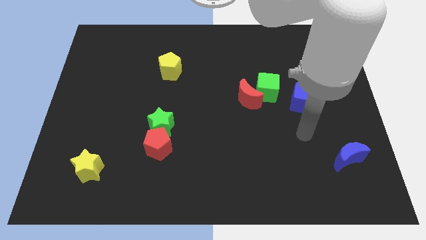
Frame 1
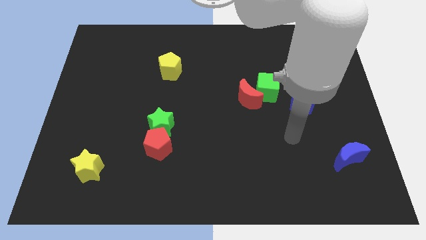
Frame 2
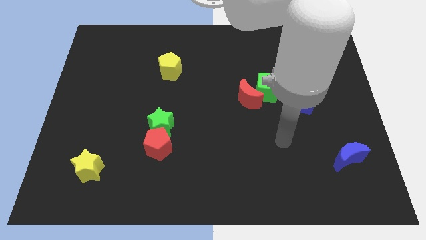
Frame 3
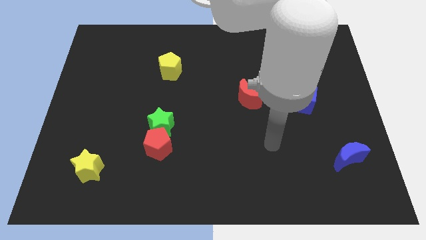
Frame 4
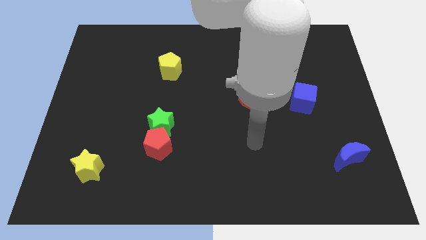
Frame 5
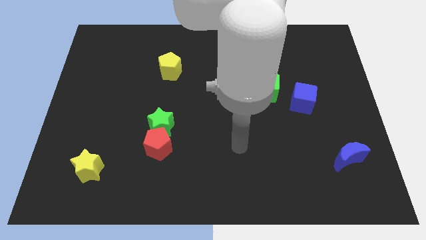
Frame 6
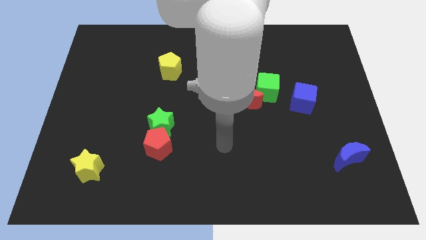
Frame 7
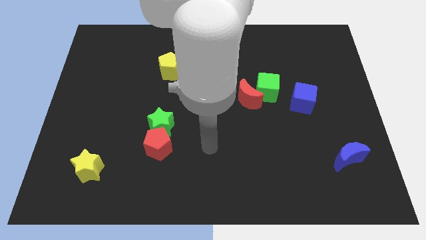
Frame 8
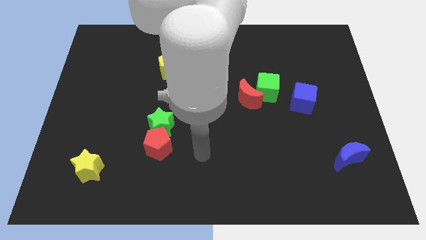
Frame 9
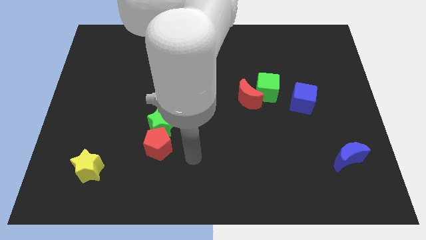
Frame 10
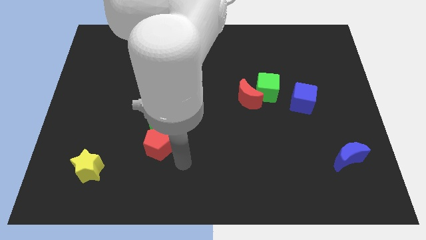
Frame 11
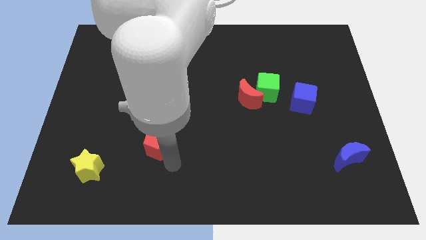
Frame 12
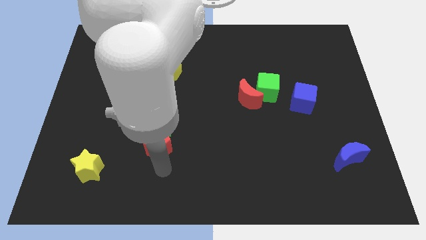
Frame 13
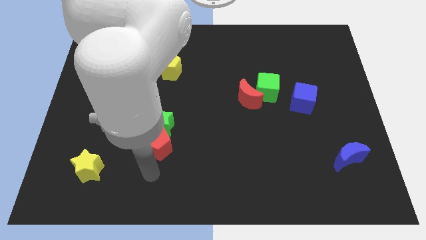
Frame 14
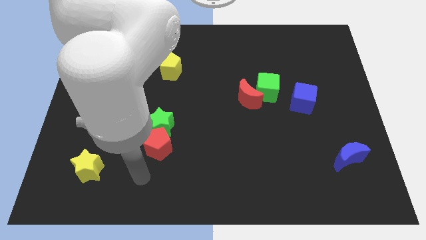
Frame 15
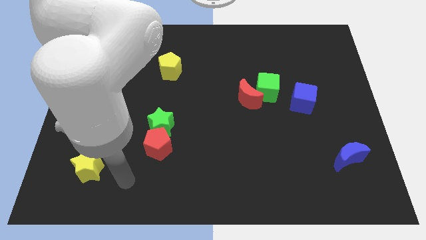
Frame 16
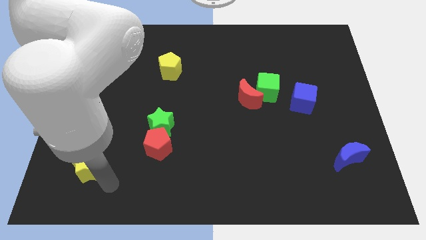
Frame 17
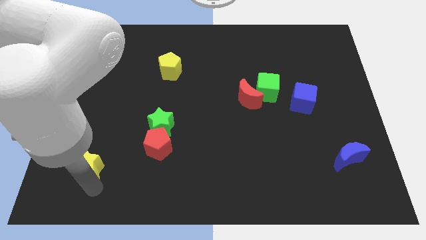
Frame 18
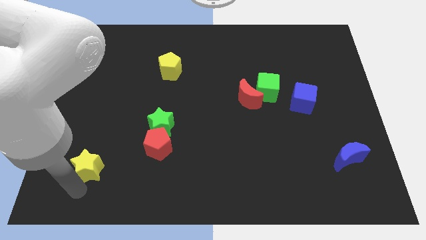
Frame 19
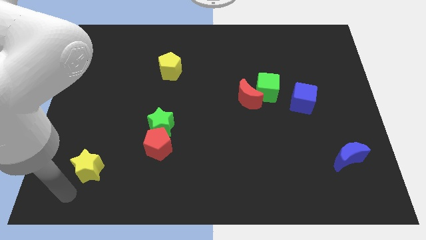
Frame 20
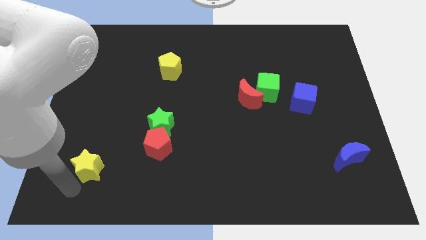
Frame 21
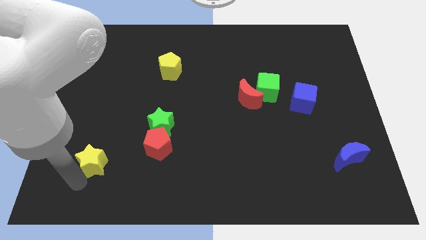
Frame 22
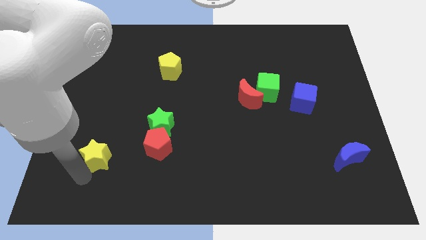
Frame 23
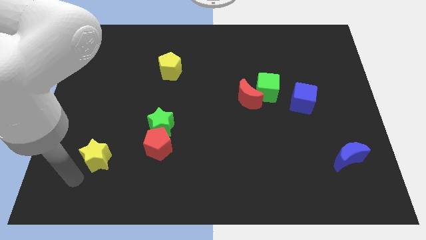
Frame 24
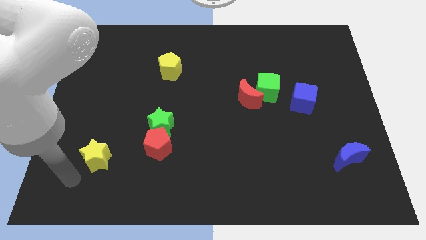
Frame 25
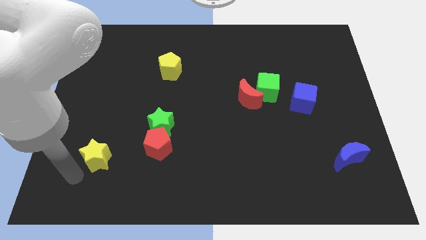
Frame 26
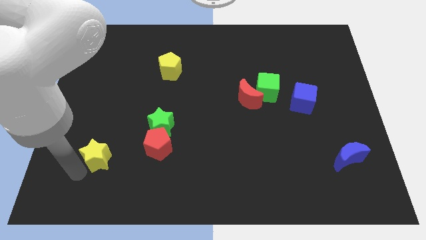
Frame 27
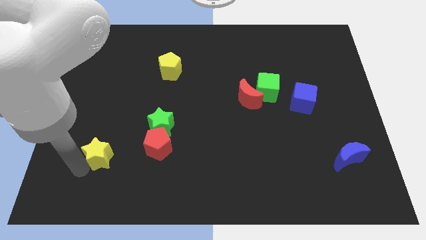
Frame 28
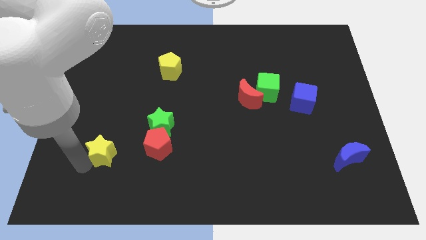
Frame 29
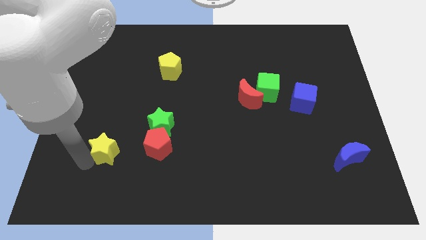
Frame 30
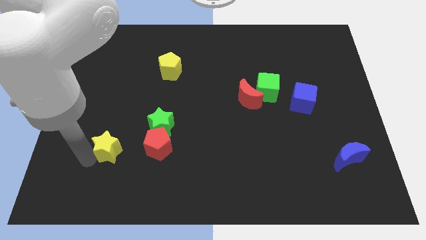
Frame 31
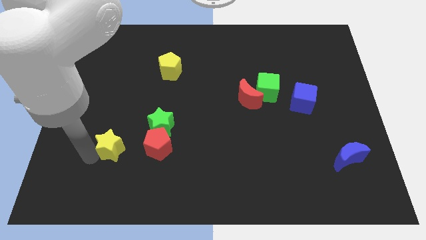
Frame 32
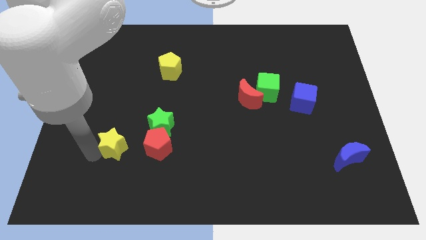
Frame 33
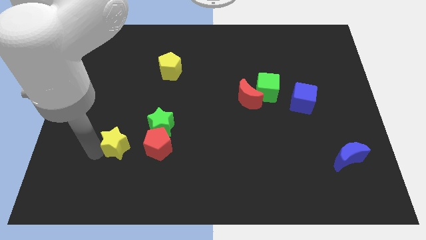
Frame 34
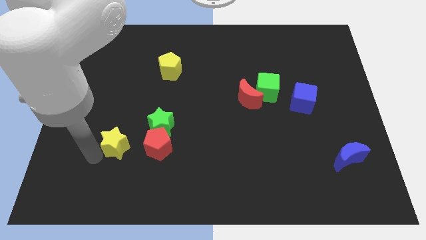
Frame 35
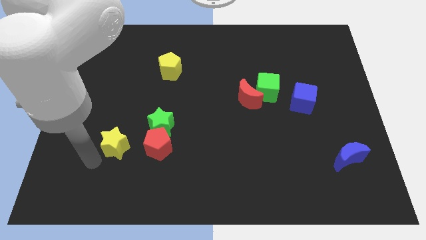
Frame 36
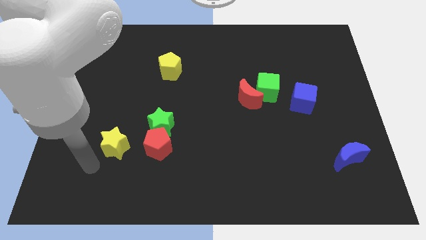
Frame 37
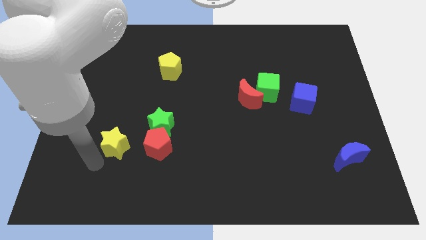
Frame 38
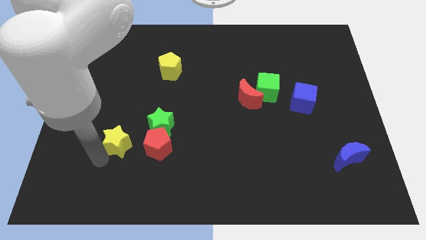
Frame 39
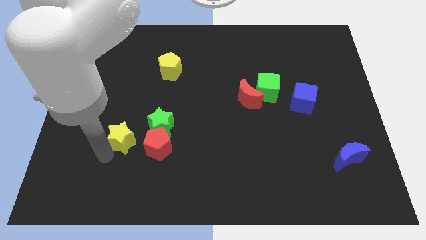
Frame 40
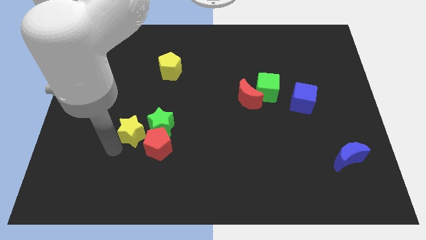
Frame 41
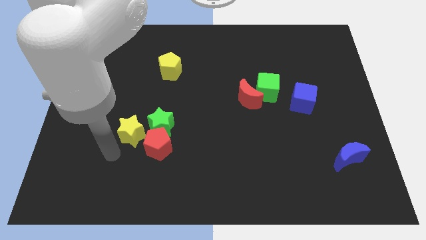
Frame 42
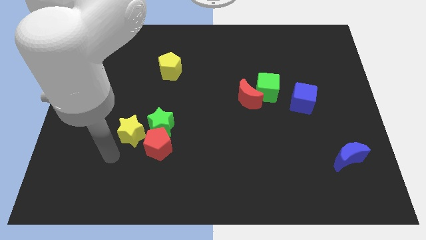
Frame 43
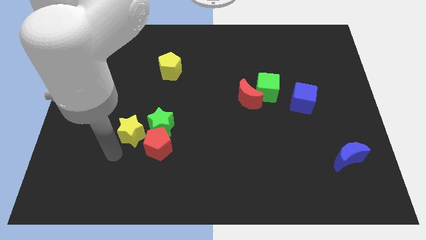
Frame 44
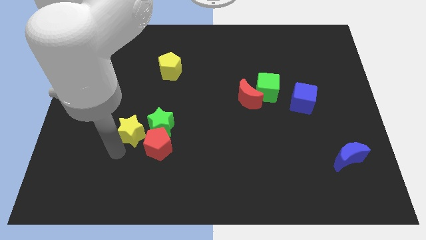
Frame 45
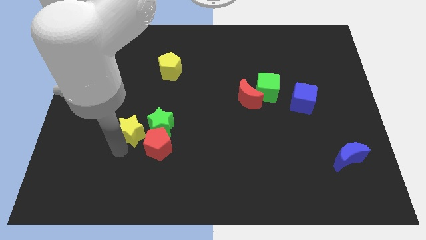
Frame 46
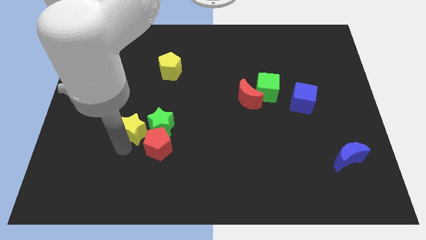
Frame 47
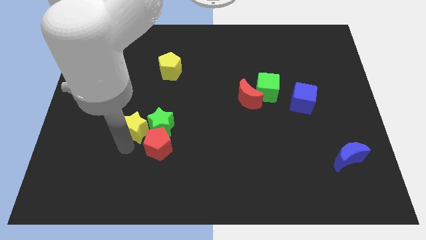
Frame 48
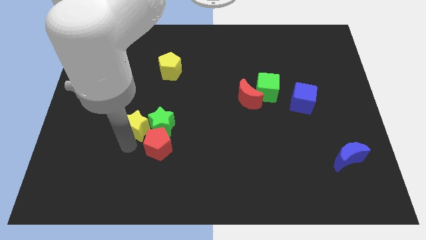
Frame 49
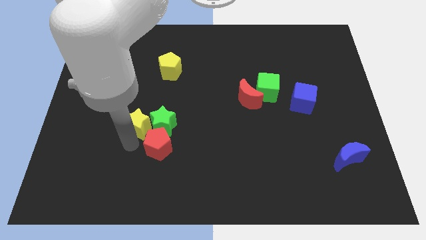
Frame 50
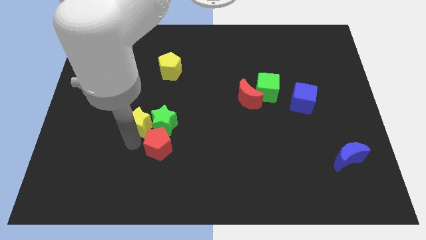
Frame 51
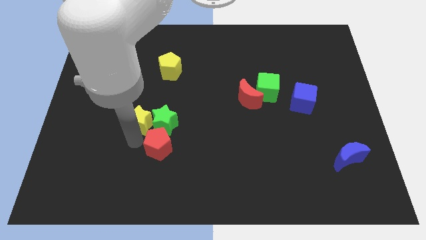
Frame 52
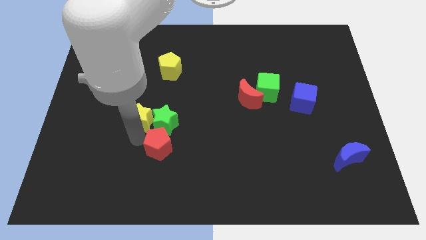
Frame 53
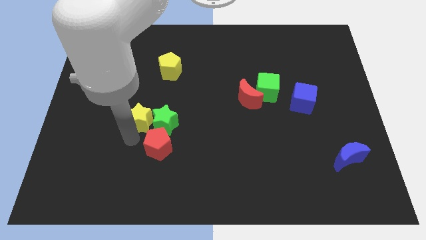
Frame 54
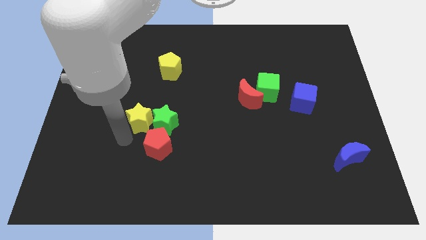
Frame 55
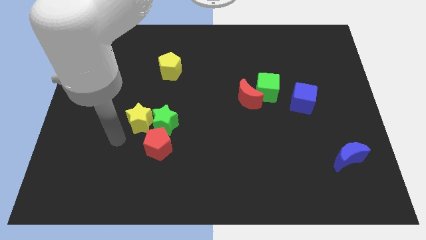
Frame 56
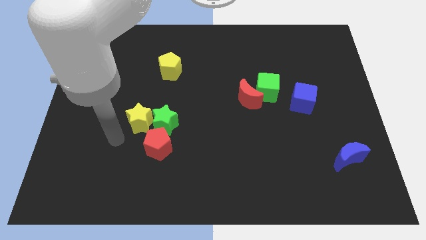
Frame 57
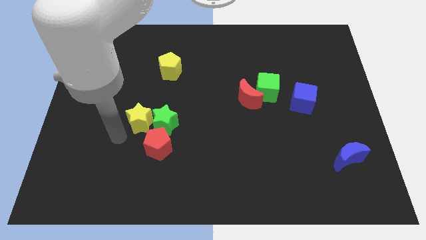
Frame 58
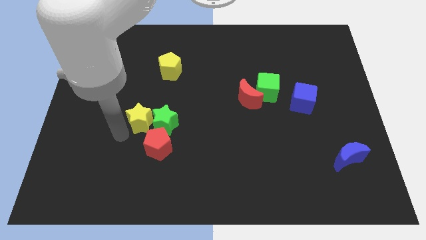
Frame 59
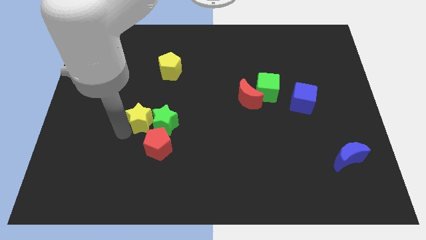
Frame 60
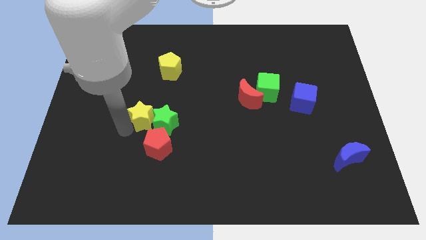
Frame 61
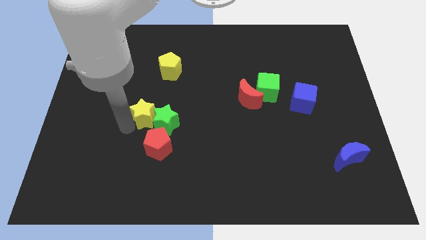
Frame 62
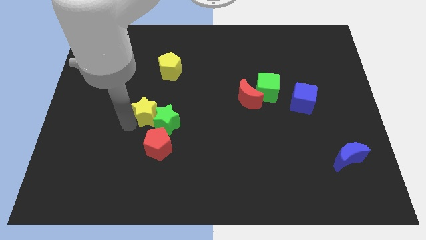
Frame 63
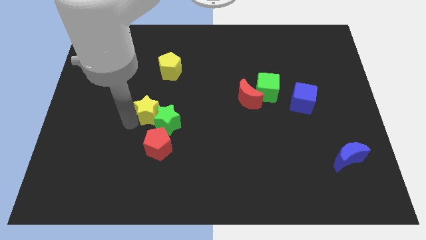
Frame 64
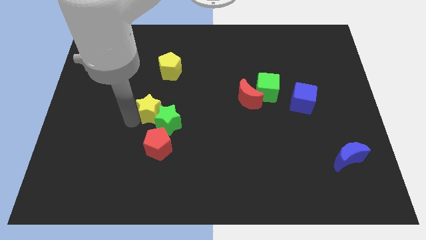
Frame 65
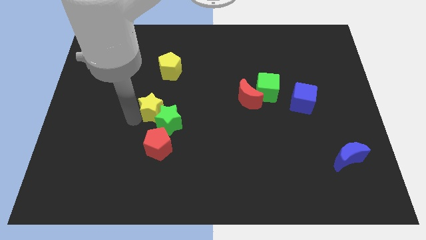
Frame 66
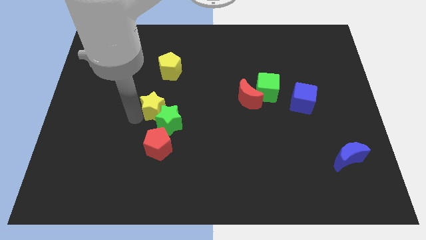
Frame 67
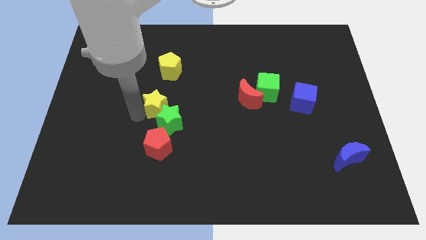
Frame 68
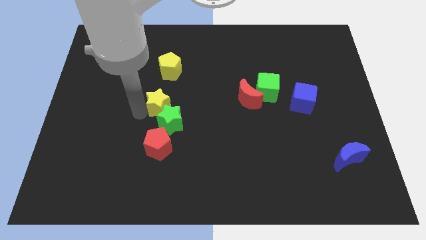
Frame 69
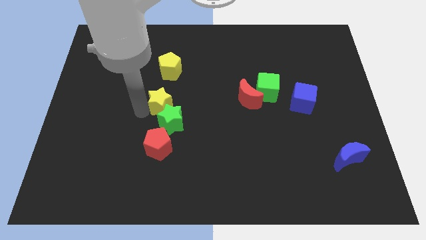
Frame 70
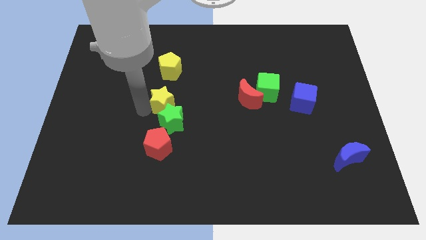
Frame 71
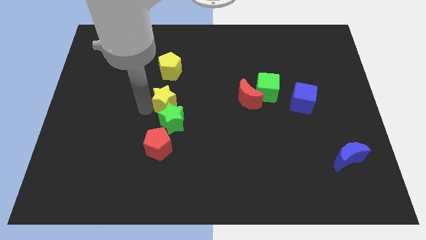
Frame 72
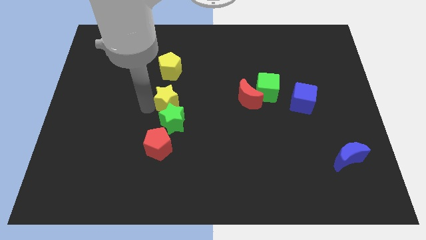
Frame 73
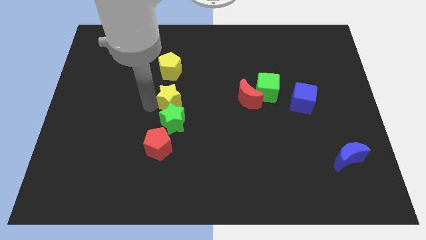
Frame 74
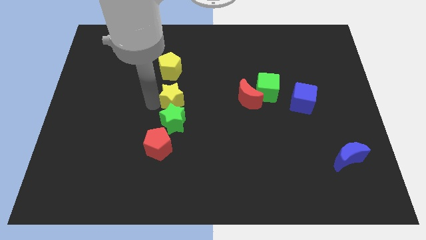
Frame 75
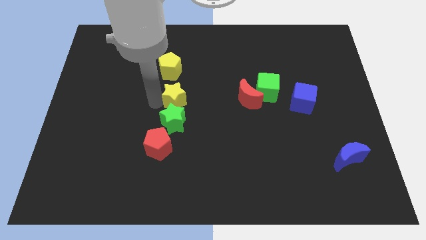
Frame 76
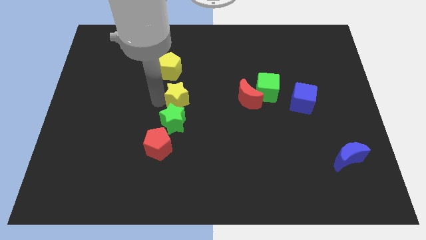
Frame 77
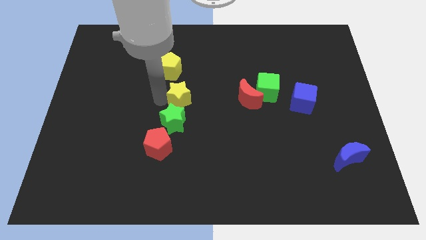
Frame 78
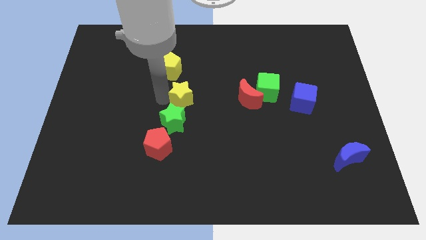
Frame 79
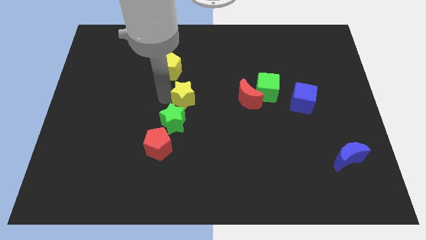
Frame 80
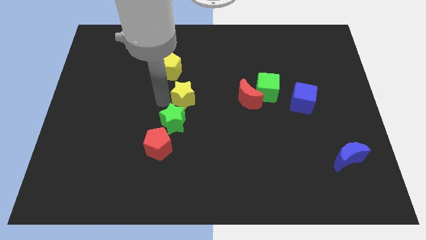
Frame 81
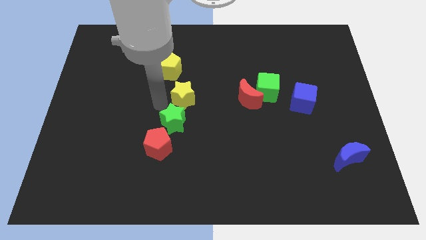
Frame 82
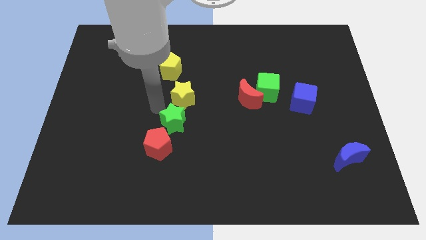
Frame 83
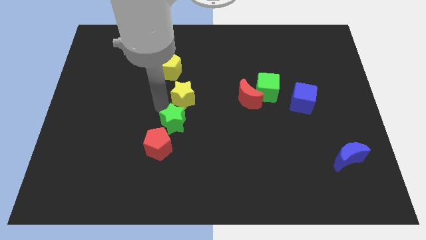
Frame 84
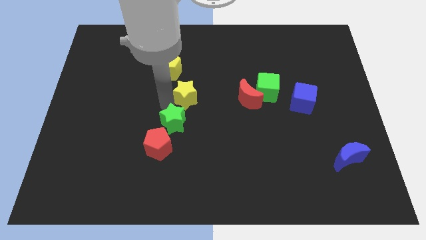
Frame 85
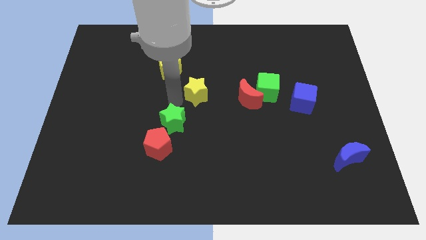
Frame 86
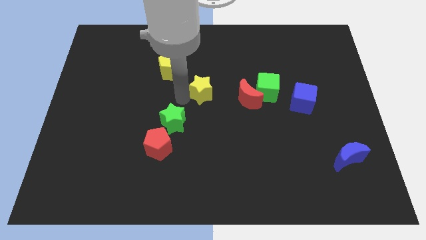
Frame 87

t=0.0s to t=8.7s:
put the yellow star just left of the green cube
